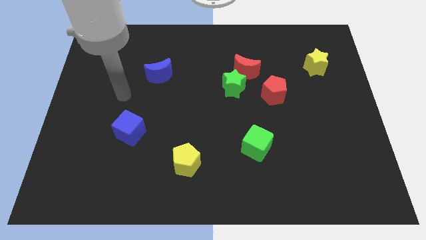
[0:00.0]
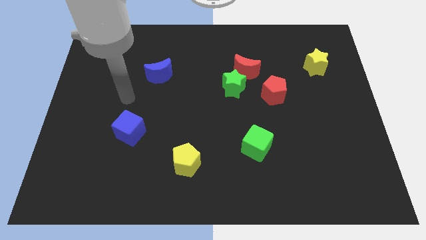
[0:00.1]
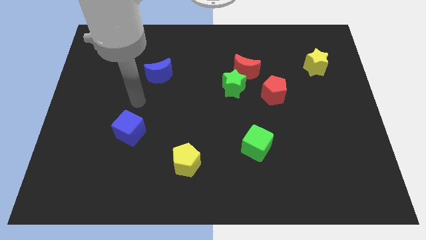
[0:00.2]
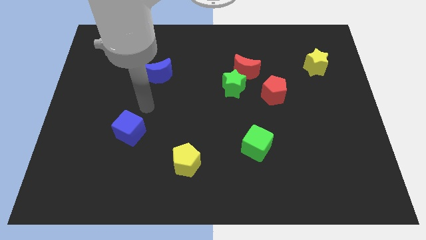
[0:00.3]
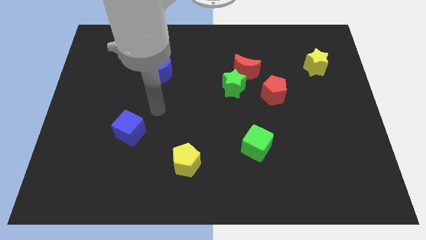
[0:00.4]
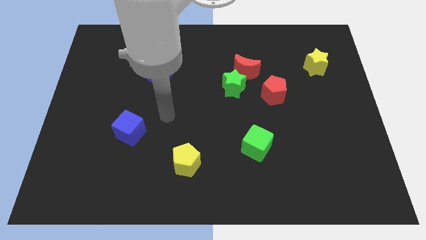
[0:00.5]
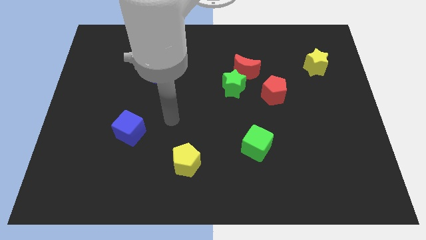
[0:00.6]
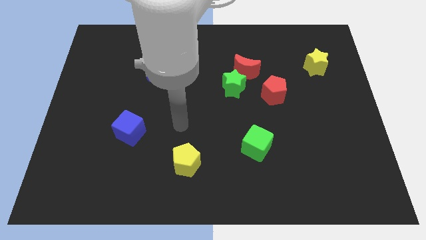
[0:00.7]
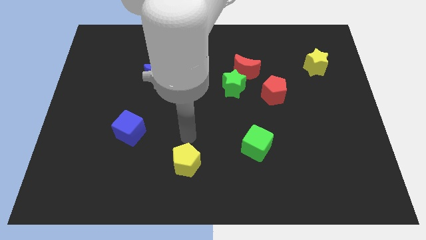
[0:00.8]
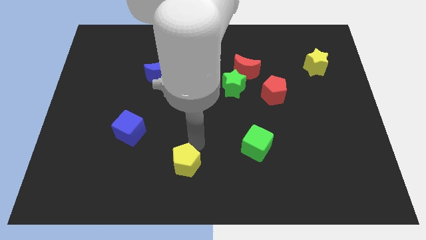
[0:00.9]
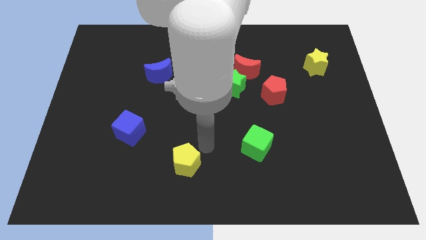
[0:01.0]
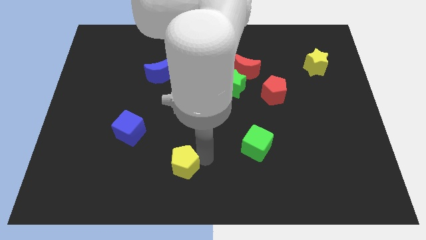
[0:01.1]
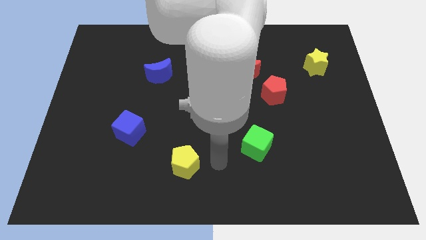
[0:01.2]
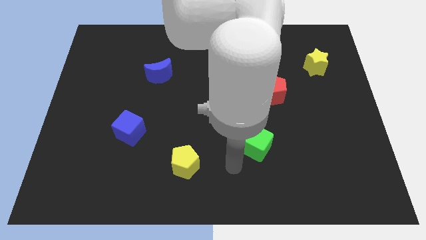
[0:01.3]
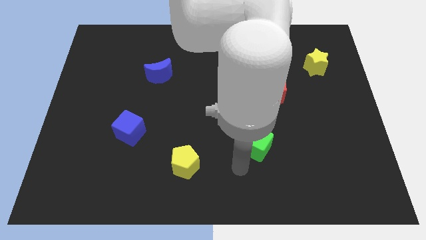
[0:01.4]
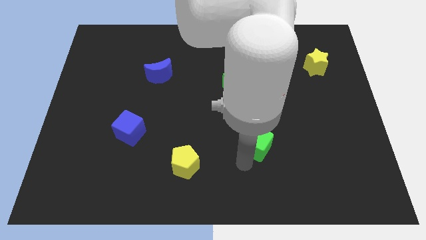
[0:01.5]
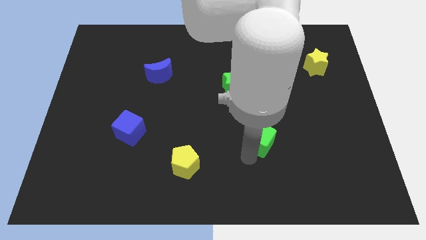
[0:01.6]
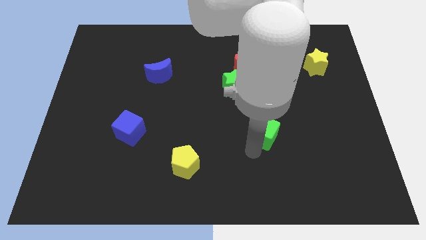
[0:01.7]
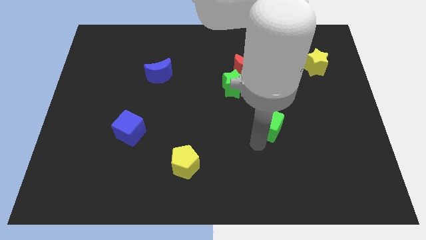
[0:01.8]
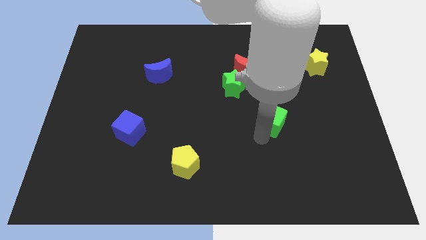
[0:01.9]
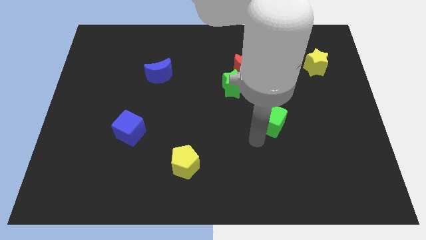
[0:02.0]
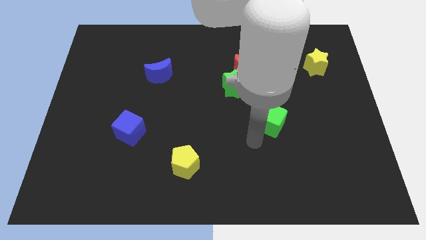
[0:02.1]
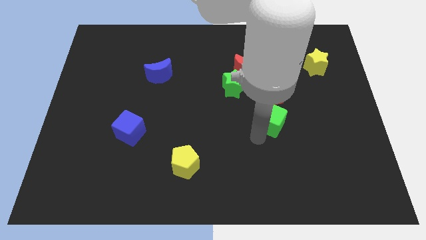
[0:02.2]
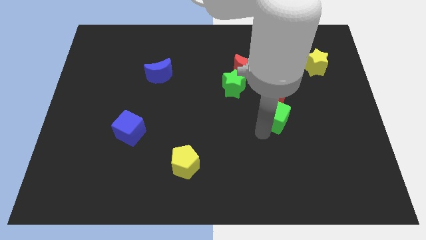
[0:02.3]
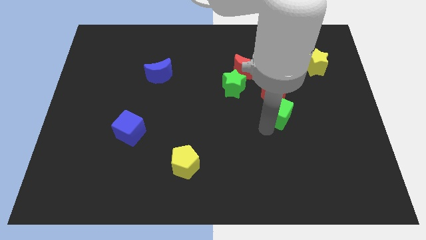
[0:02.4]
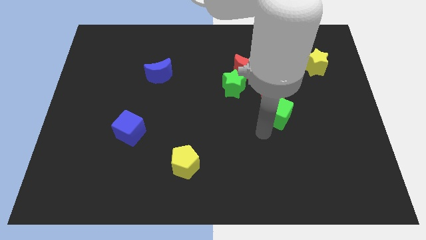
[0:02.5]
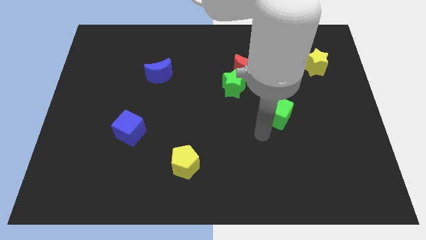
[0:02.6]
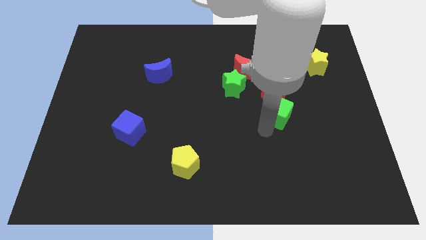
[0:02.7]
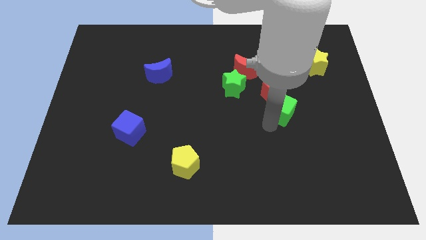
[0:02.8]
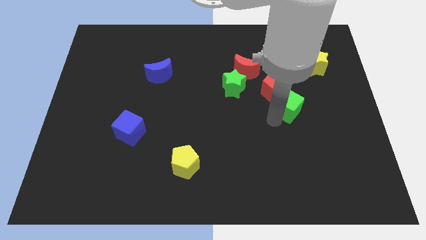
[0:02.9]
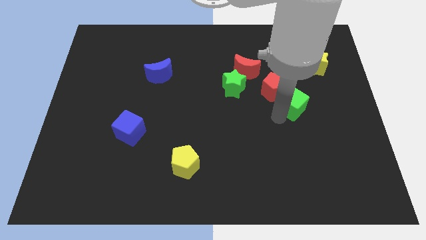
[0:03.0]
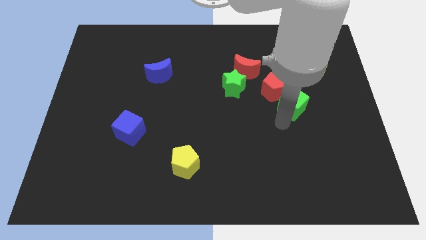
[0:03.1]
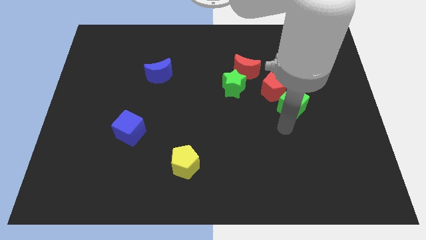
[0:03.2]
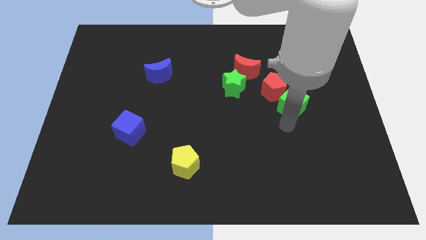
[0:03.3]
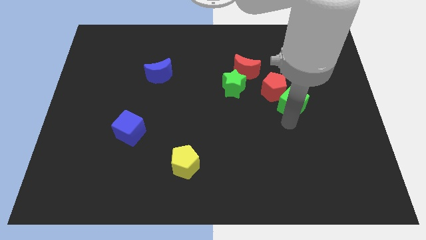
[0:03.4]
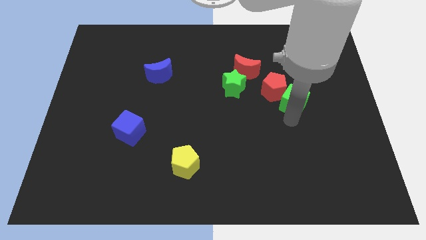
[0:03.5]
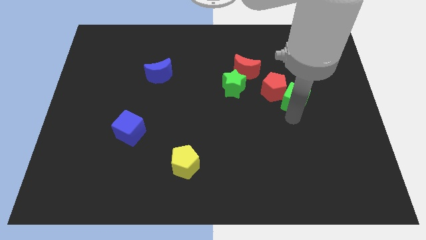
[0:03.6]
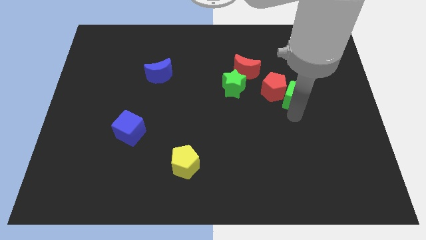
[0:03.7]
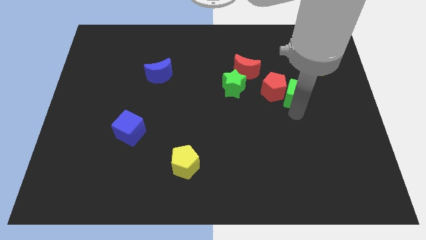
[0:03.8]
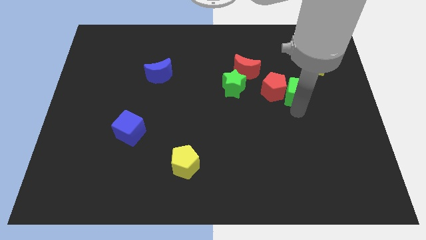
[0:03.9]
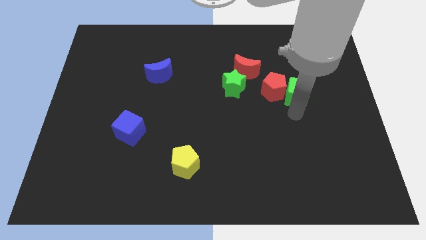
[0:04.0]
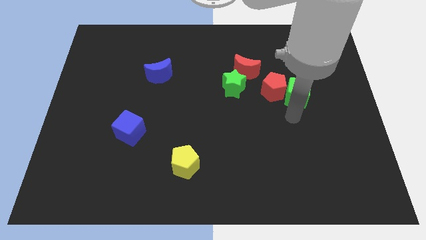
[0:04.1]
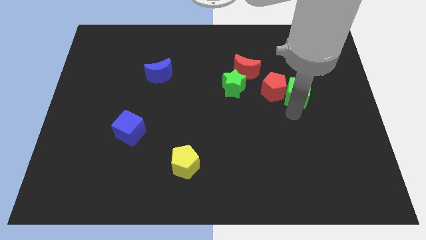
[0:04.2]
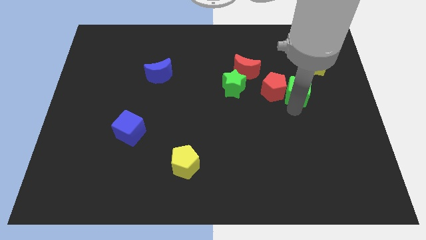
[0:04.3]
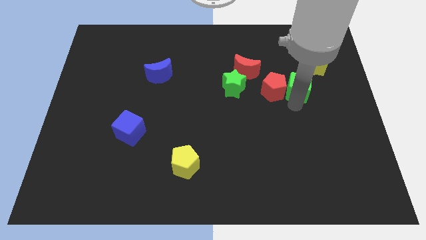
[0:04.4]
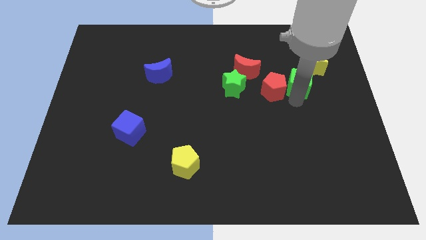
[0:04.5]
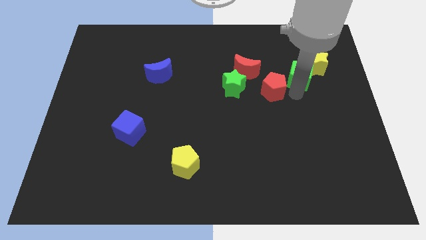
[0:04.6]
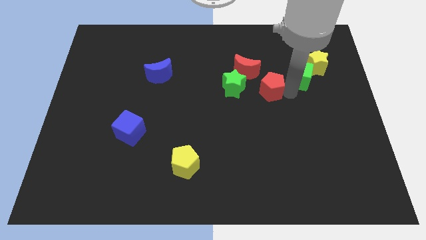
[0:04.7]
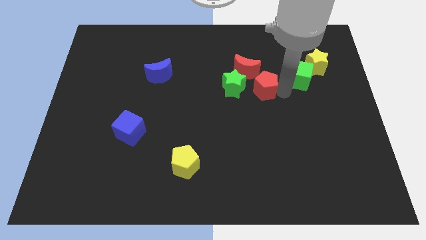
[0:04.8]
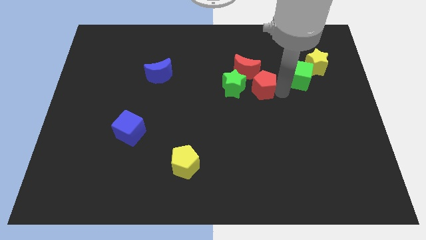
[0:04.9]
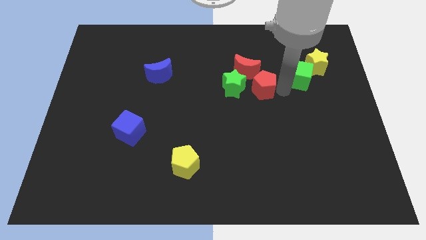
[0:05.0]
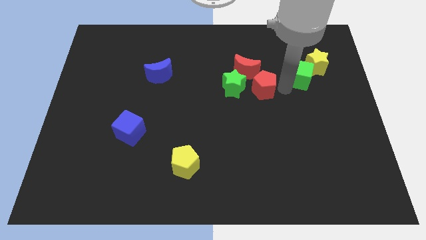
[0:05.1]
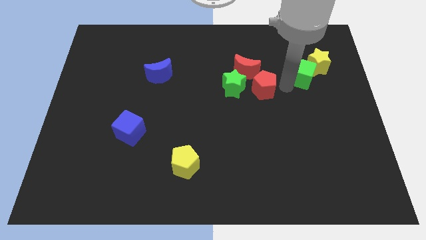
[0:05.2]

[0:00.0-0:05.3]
put the green cube close to the yellow star

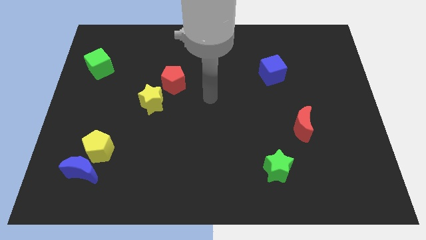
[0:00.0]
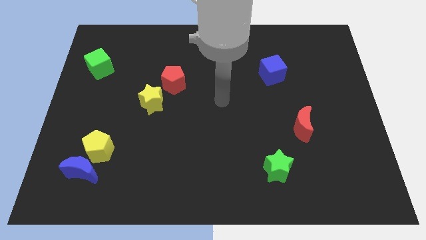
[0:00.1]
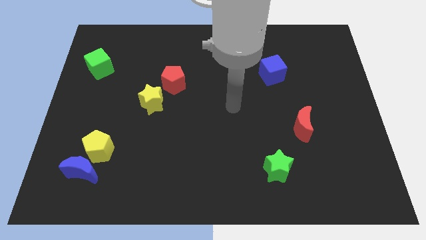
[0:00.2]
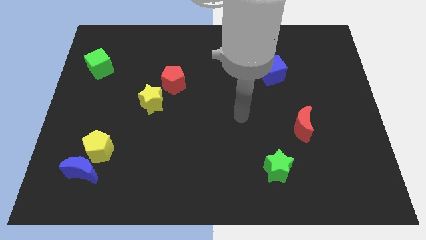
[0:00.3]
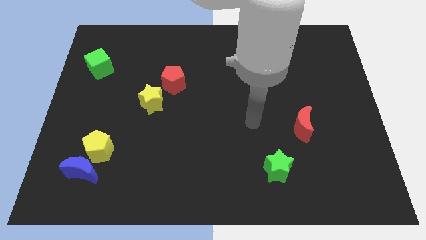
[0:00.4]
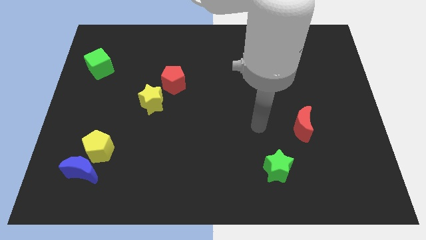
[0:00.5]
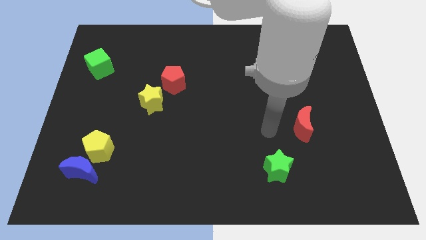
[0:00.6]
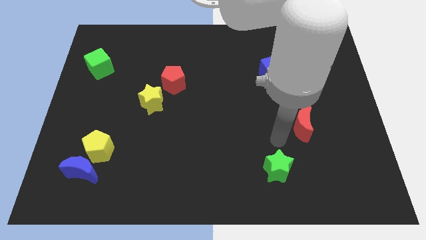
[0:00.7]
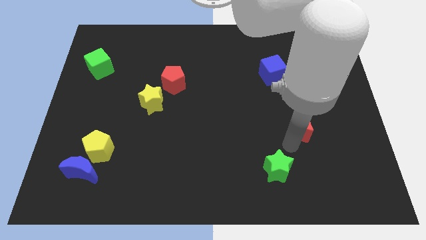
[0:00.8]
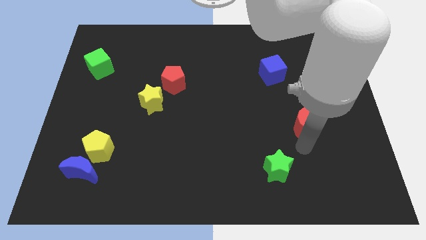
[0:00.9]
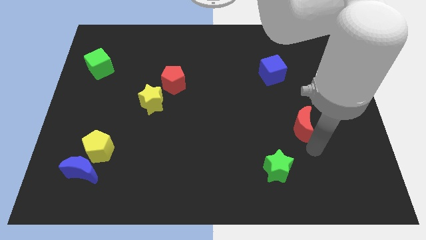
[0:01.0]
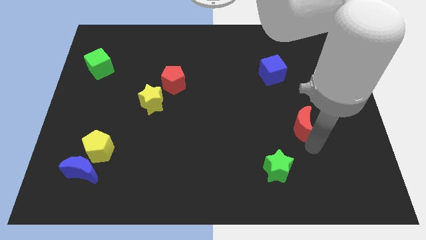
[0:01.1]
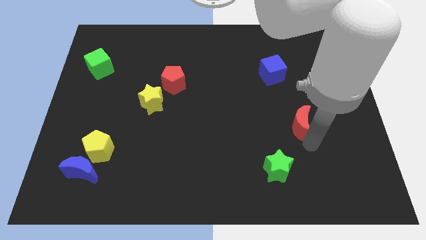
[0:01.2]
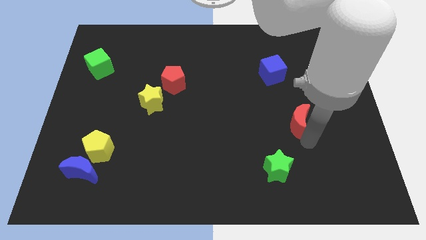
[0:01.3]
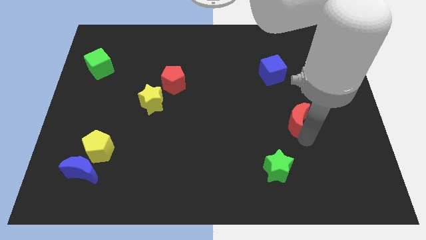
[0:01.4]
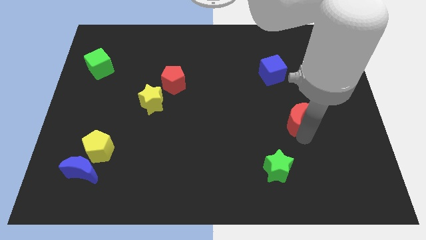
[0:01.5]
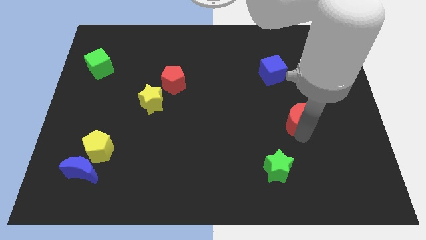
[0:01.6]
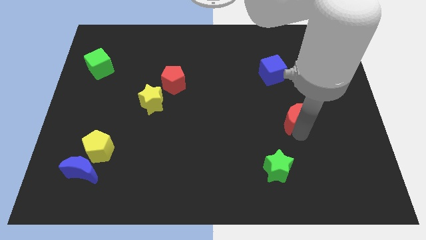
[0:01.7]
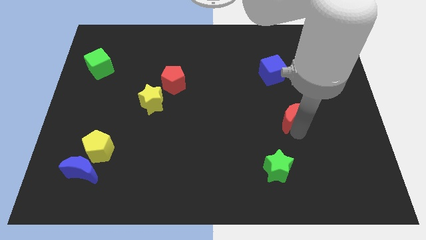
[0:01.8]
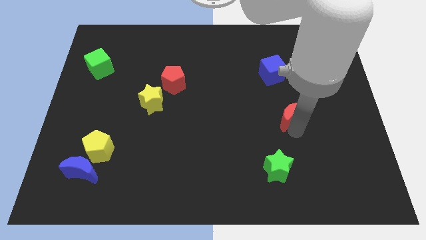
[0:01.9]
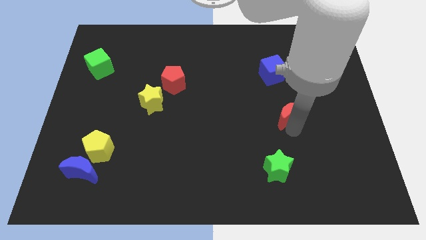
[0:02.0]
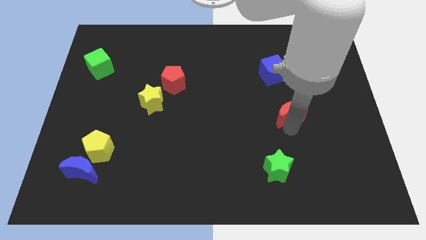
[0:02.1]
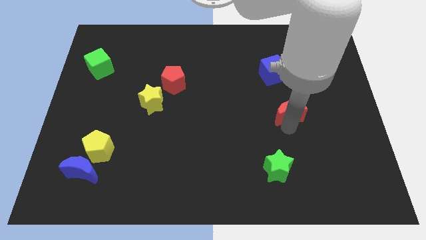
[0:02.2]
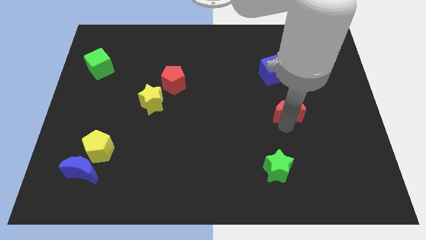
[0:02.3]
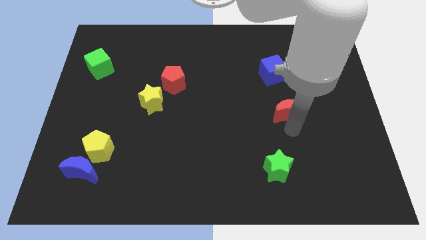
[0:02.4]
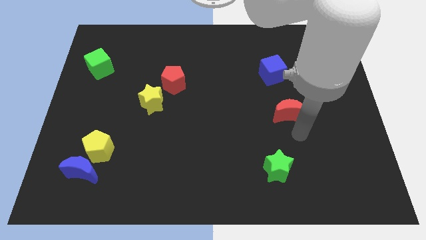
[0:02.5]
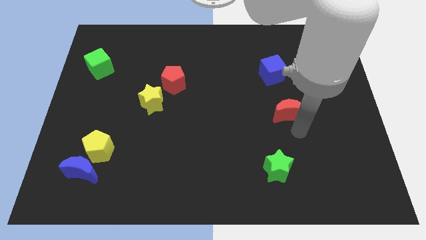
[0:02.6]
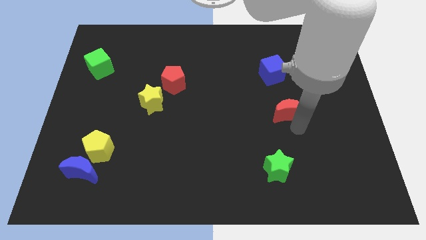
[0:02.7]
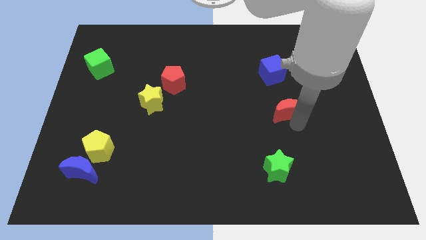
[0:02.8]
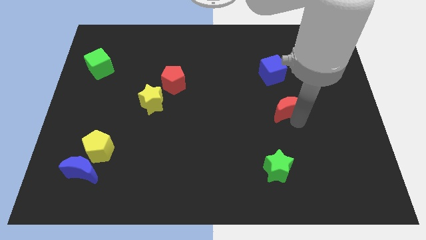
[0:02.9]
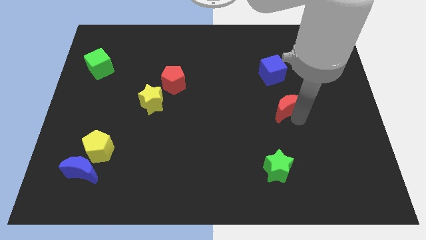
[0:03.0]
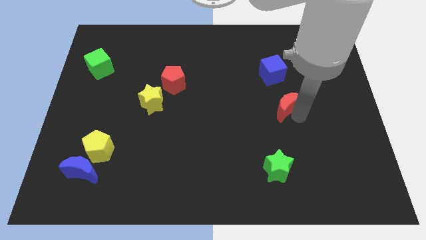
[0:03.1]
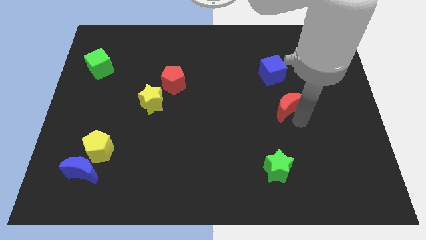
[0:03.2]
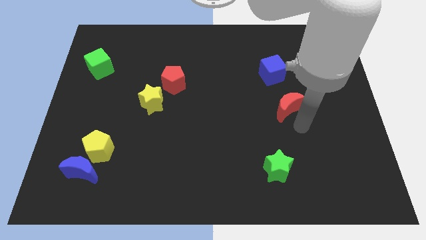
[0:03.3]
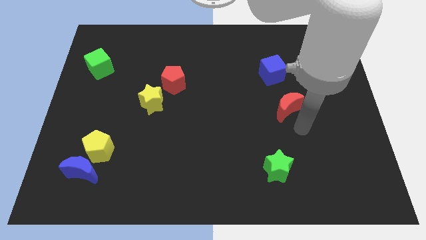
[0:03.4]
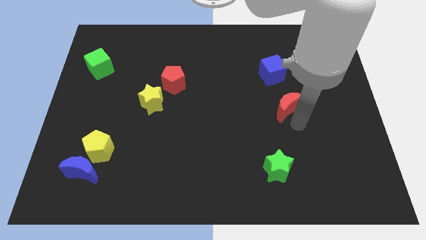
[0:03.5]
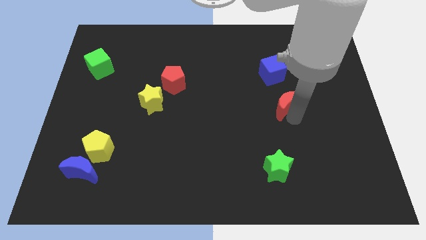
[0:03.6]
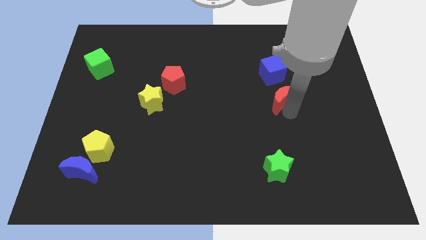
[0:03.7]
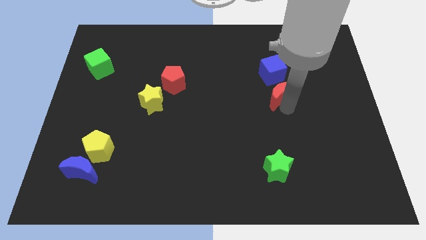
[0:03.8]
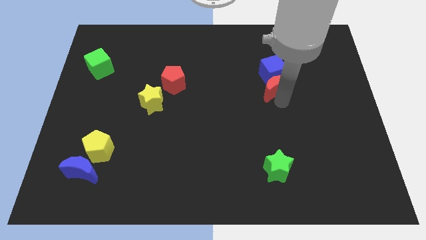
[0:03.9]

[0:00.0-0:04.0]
push the red moon next to the blue cube
